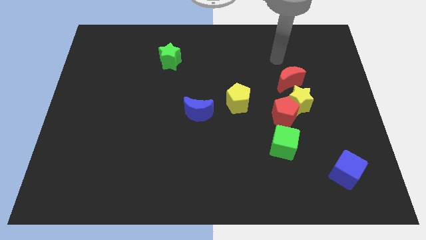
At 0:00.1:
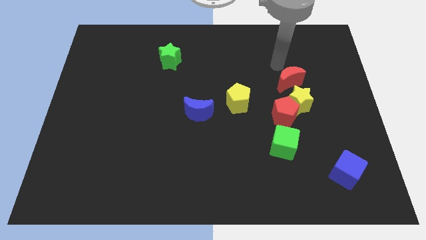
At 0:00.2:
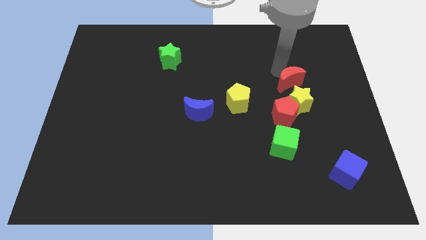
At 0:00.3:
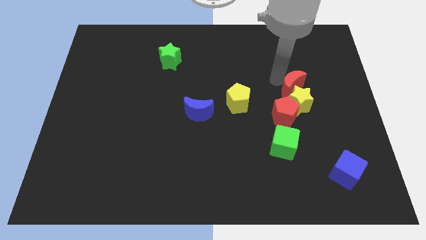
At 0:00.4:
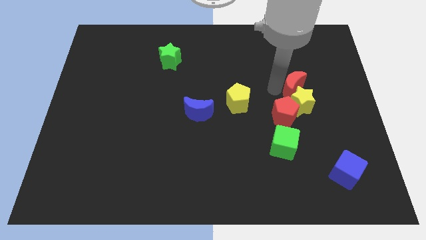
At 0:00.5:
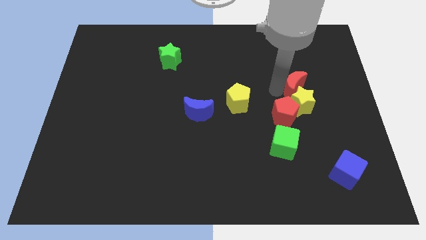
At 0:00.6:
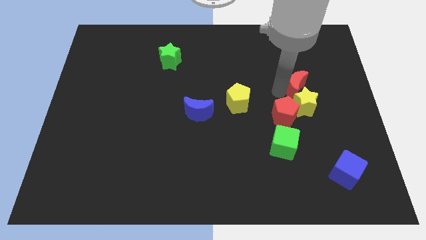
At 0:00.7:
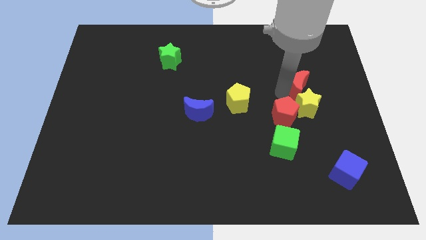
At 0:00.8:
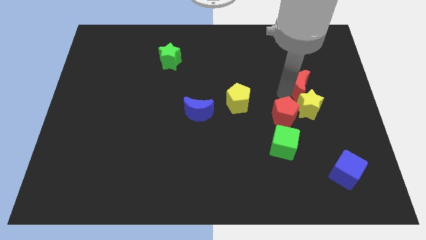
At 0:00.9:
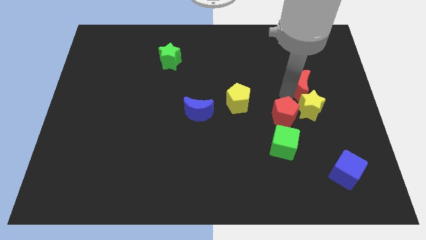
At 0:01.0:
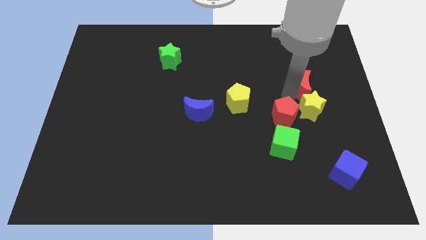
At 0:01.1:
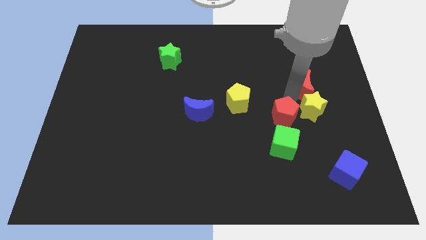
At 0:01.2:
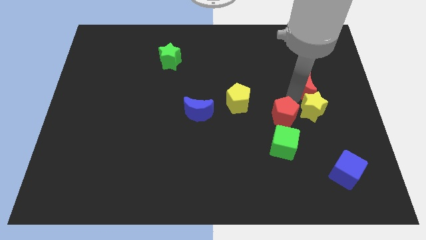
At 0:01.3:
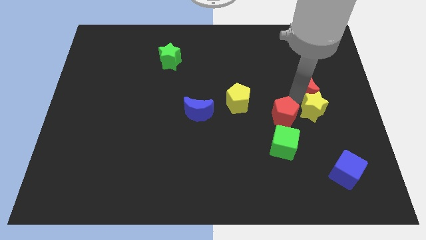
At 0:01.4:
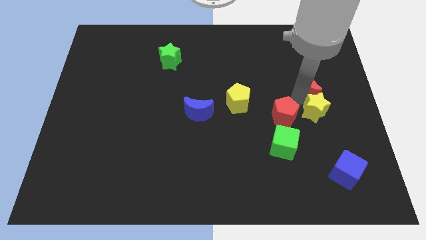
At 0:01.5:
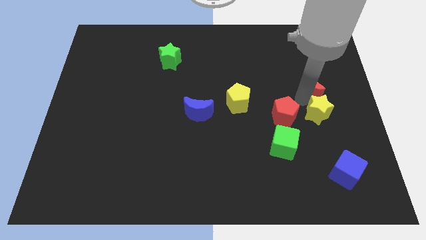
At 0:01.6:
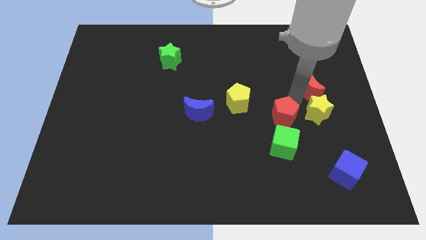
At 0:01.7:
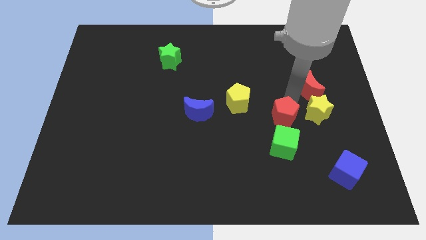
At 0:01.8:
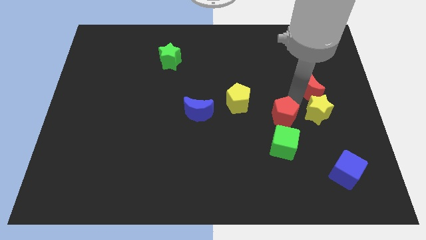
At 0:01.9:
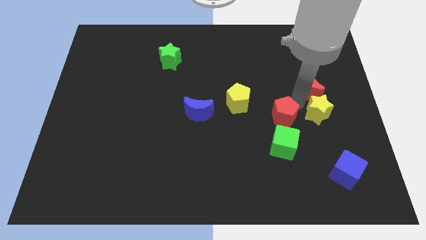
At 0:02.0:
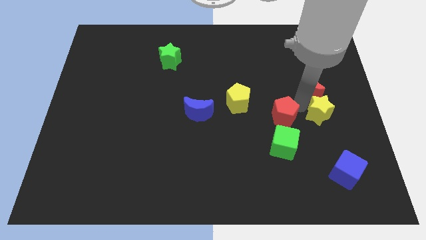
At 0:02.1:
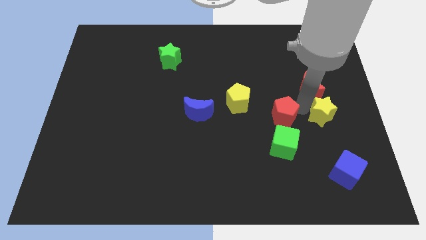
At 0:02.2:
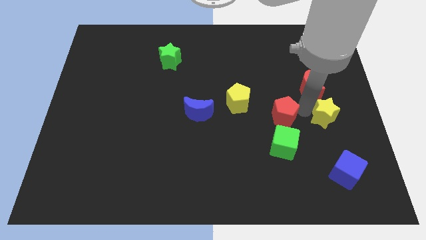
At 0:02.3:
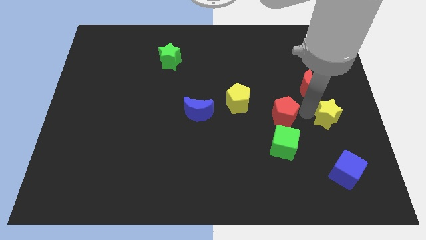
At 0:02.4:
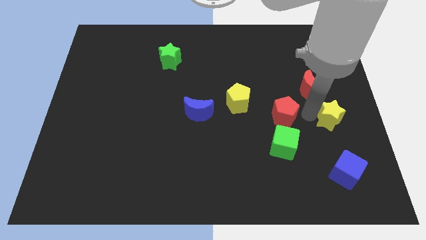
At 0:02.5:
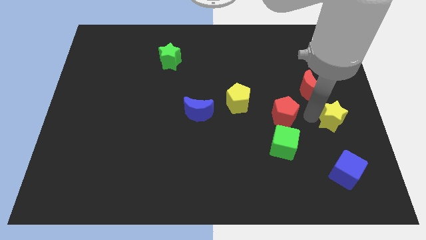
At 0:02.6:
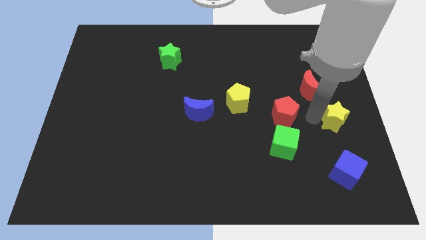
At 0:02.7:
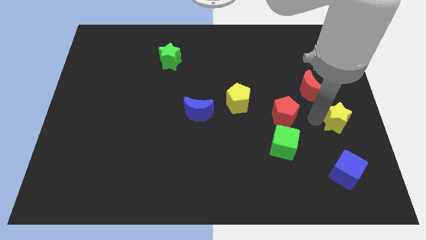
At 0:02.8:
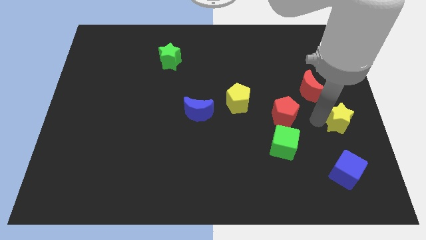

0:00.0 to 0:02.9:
separate the yellow star from the red pentagon and red moon

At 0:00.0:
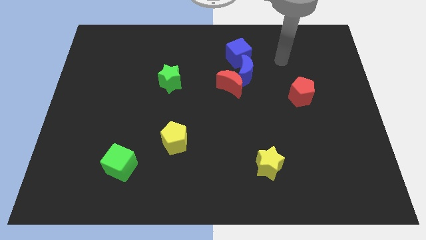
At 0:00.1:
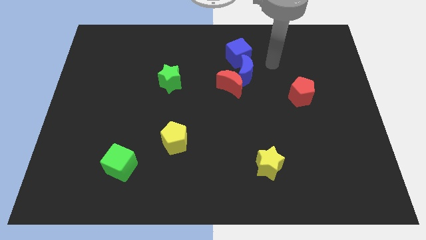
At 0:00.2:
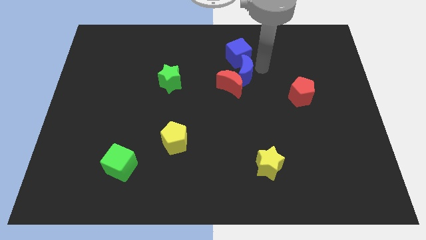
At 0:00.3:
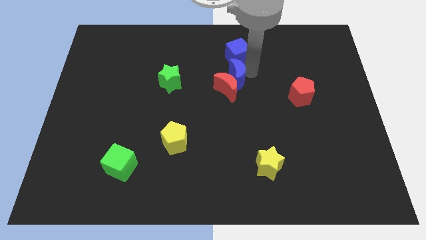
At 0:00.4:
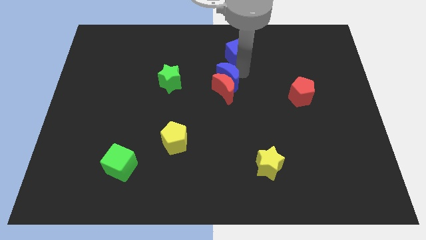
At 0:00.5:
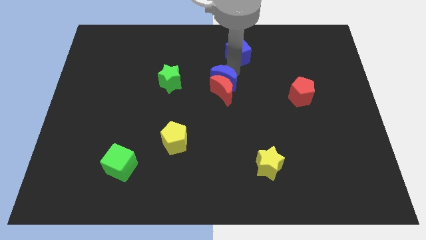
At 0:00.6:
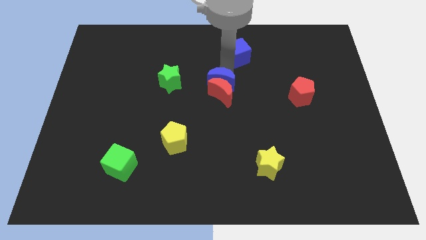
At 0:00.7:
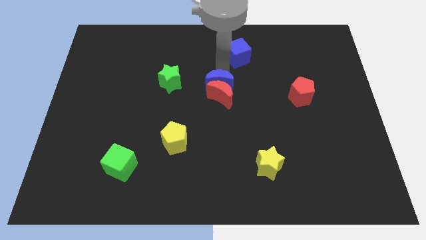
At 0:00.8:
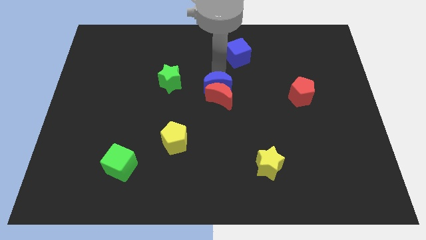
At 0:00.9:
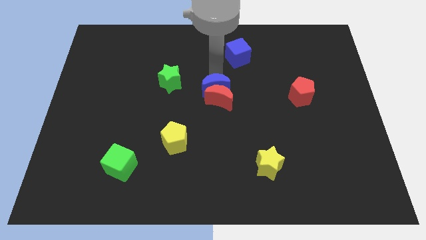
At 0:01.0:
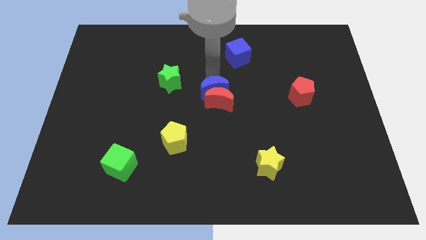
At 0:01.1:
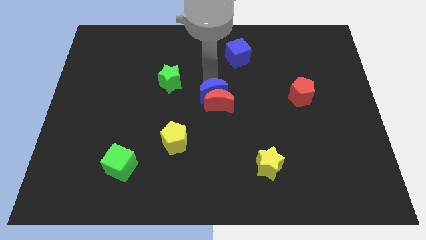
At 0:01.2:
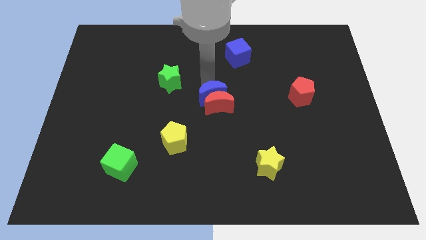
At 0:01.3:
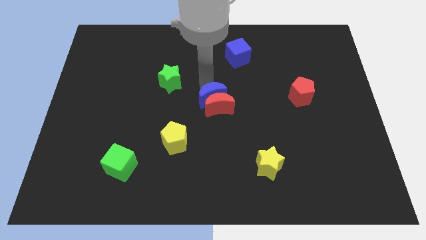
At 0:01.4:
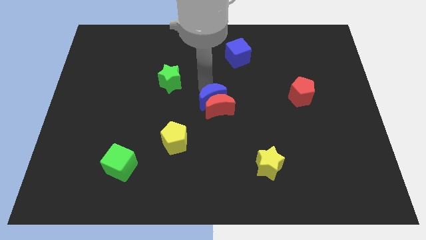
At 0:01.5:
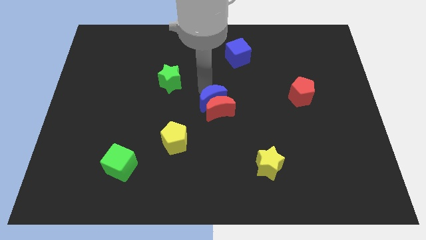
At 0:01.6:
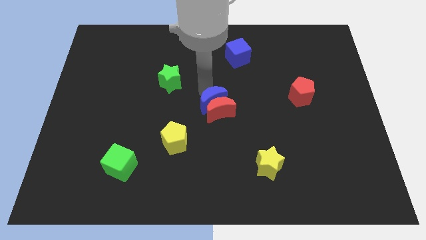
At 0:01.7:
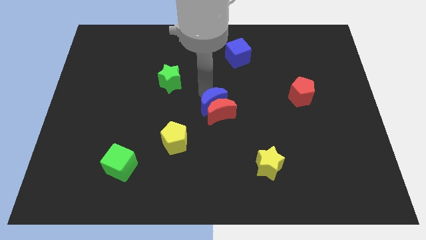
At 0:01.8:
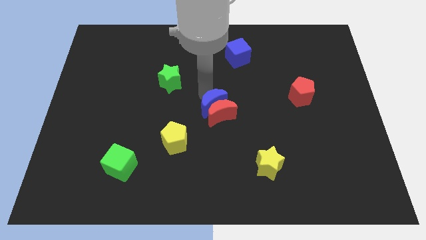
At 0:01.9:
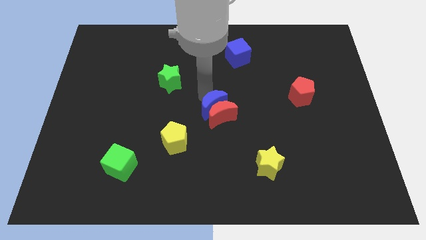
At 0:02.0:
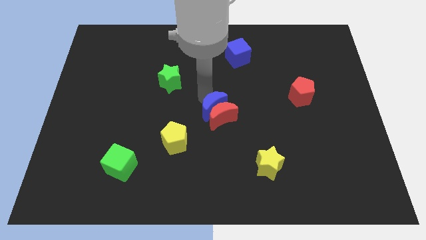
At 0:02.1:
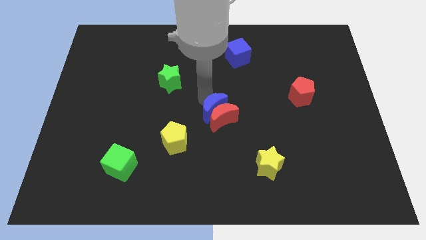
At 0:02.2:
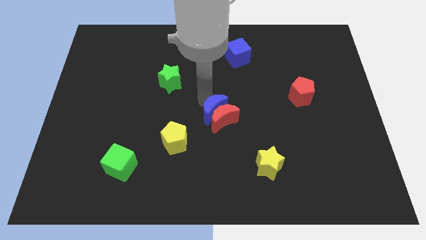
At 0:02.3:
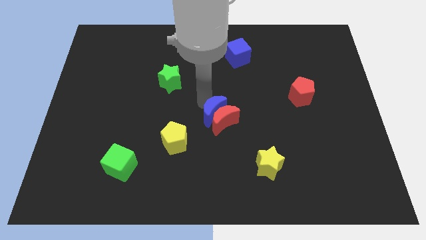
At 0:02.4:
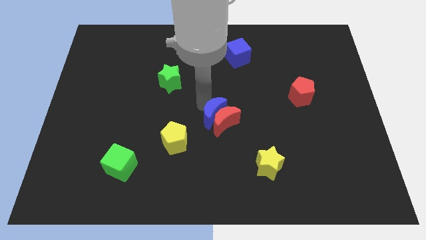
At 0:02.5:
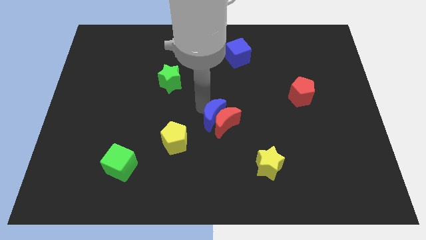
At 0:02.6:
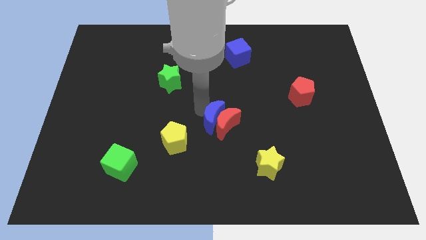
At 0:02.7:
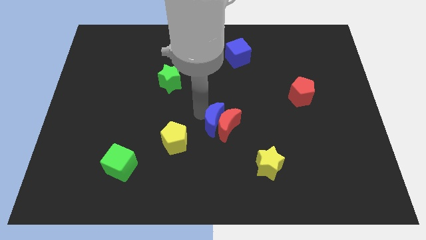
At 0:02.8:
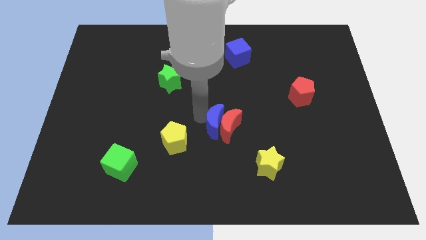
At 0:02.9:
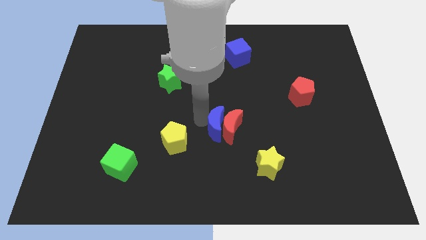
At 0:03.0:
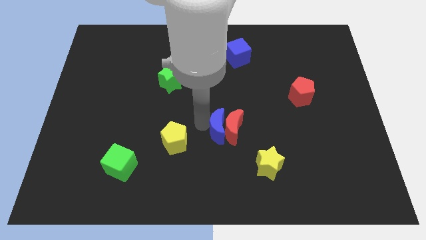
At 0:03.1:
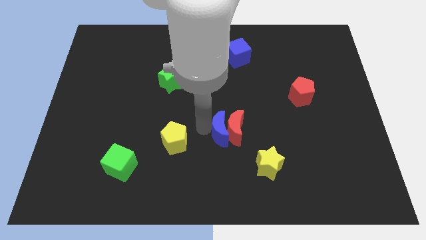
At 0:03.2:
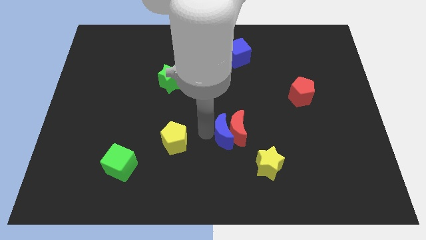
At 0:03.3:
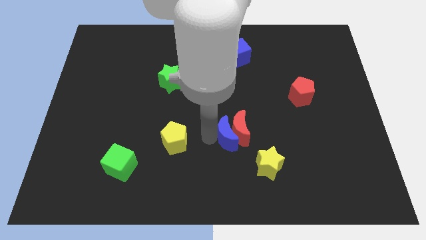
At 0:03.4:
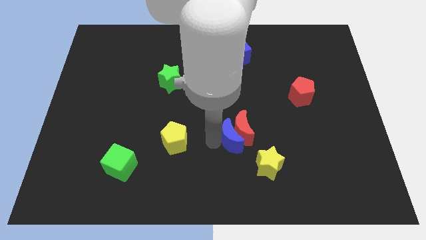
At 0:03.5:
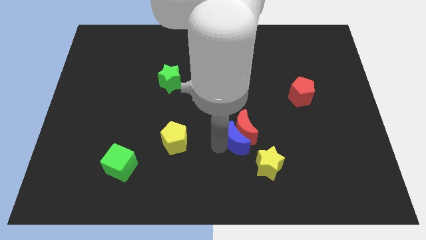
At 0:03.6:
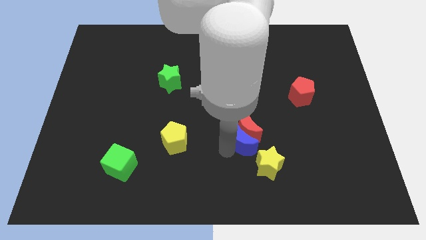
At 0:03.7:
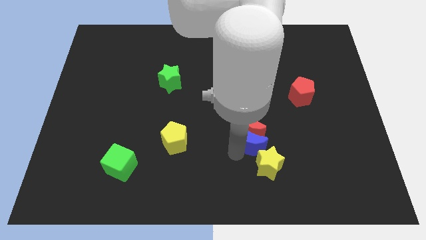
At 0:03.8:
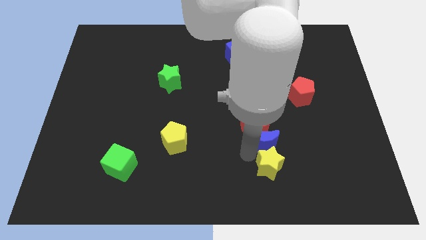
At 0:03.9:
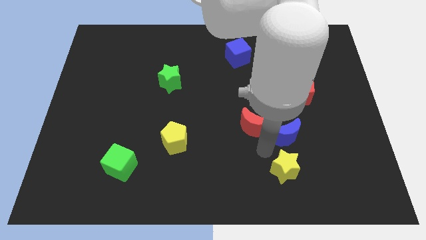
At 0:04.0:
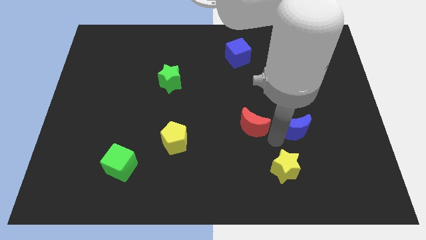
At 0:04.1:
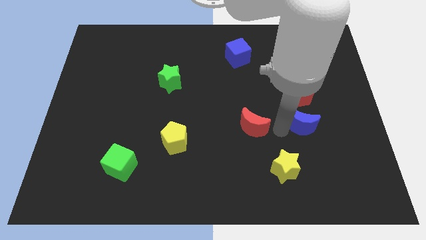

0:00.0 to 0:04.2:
separate the red moon from the blue moon

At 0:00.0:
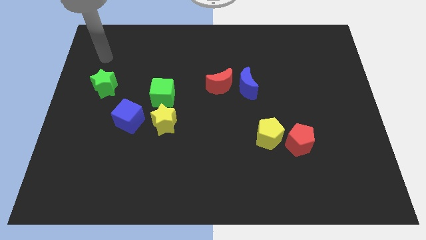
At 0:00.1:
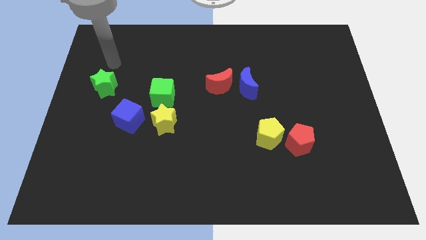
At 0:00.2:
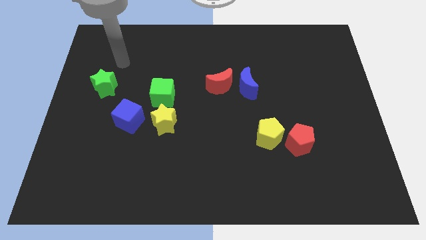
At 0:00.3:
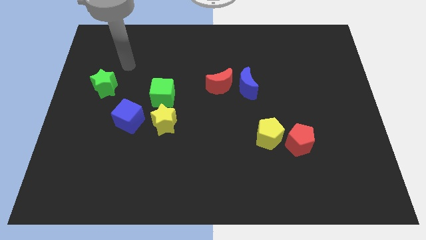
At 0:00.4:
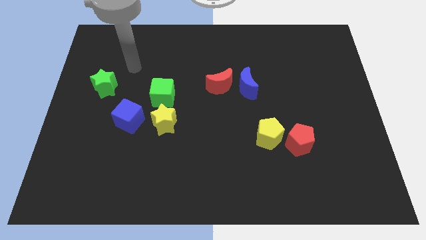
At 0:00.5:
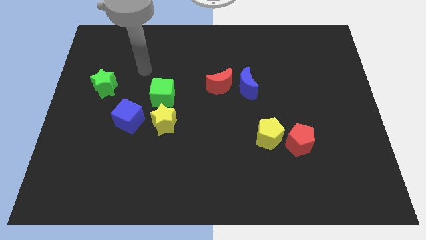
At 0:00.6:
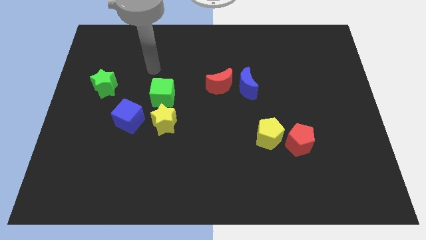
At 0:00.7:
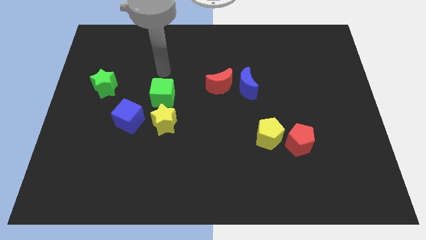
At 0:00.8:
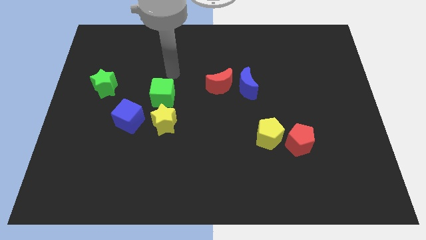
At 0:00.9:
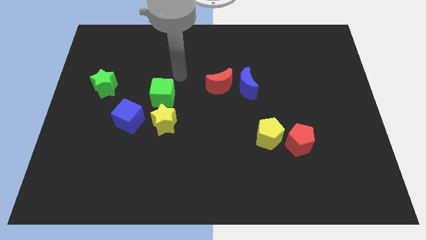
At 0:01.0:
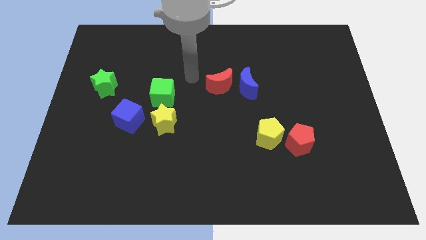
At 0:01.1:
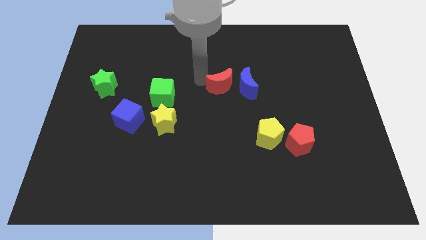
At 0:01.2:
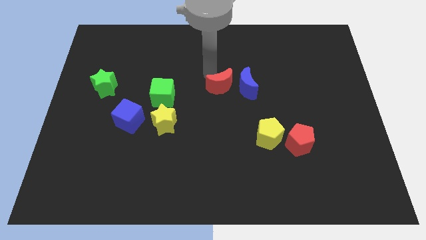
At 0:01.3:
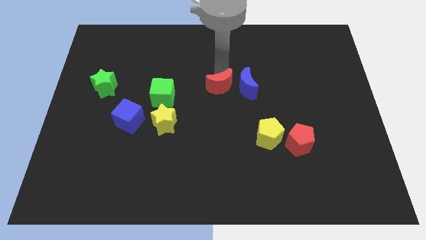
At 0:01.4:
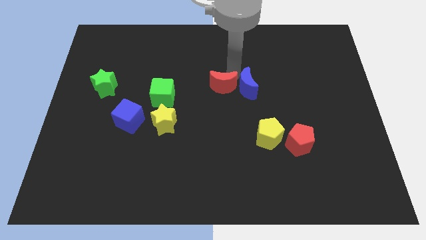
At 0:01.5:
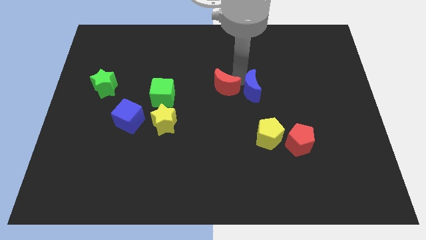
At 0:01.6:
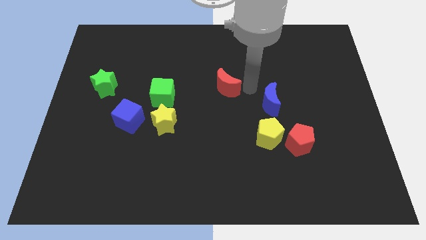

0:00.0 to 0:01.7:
pull the red moon apart from the blue moon

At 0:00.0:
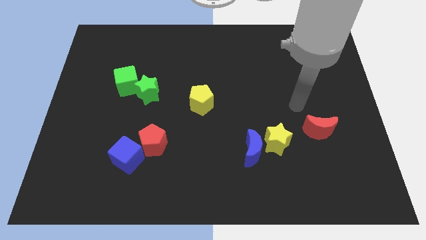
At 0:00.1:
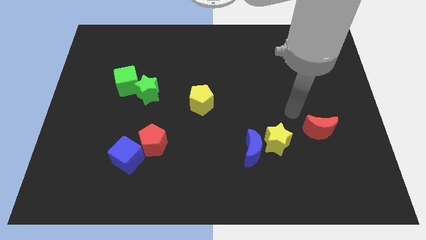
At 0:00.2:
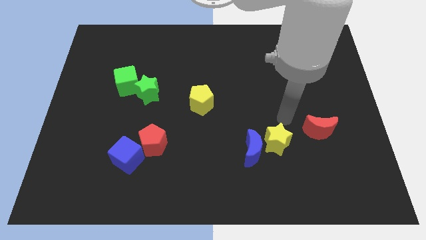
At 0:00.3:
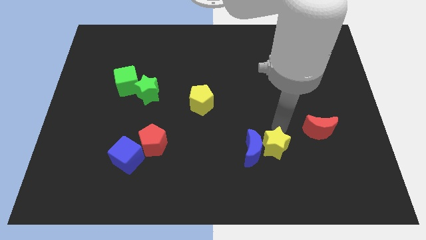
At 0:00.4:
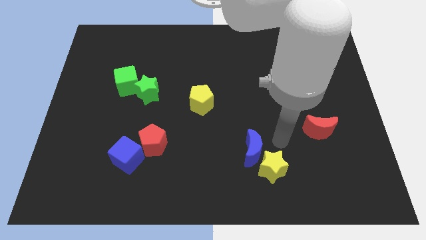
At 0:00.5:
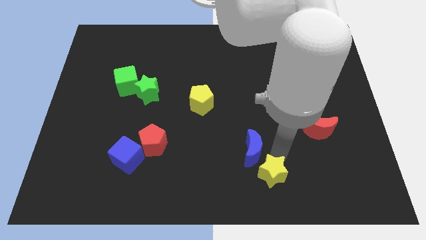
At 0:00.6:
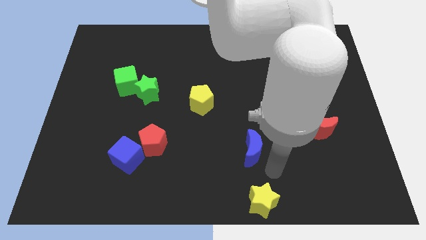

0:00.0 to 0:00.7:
separate the blue moon from the yellow star
